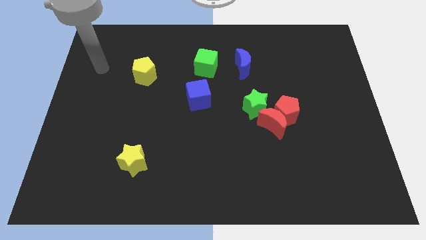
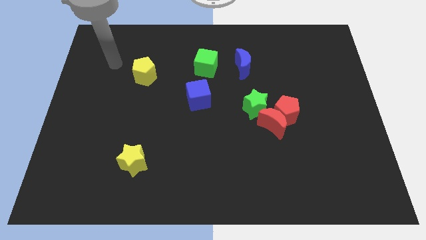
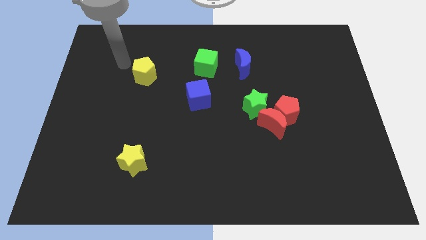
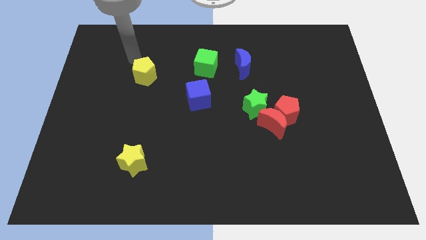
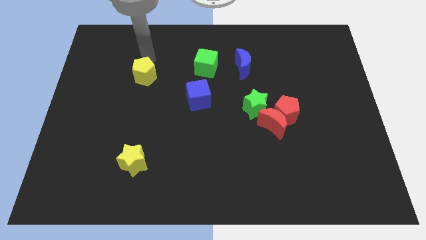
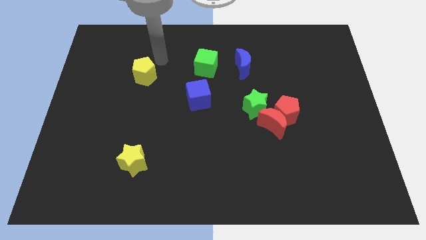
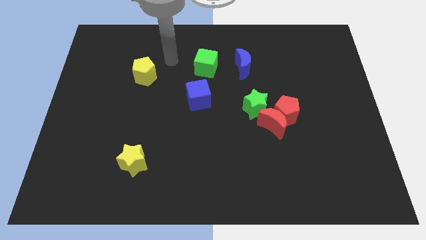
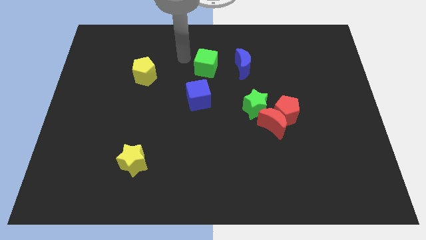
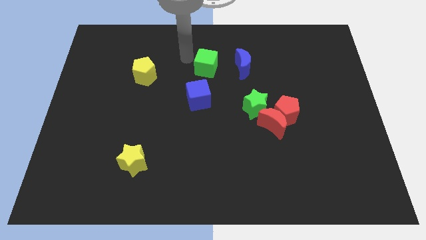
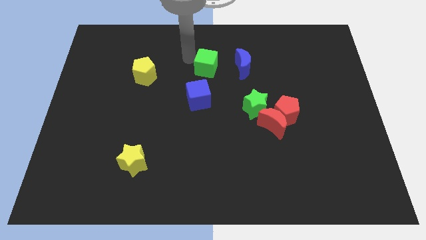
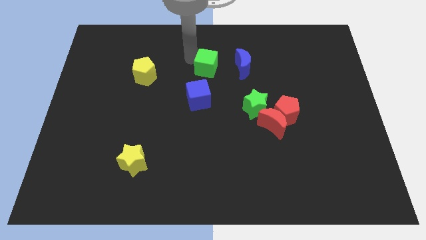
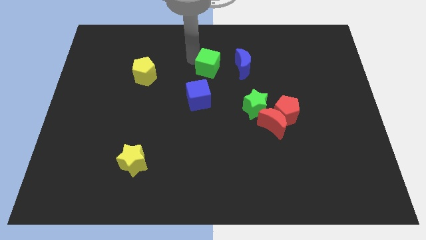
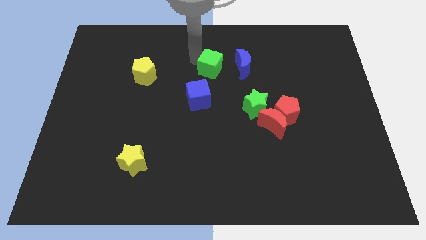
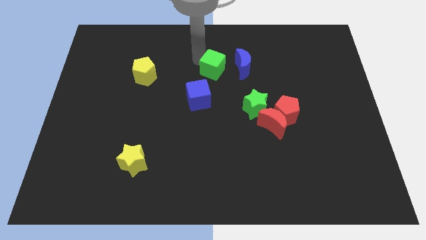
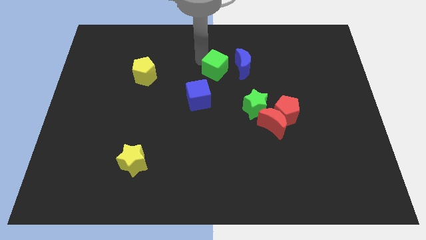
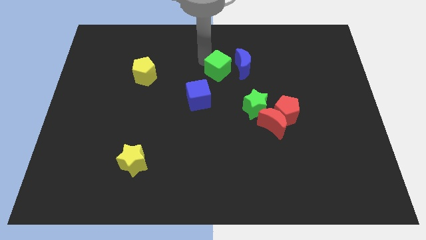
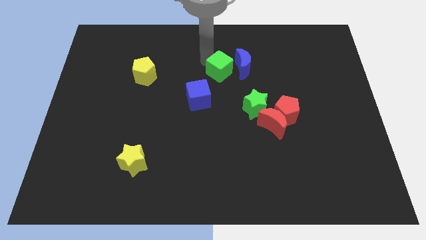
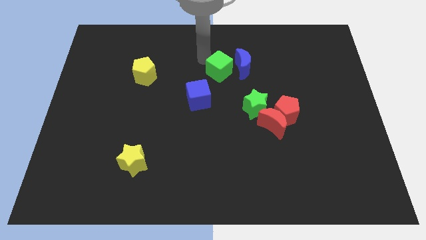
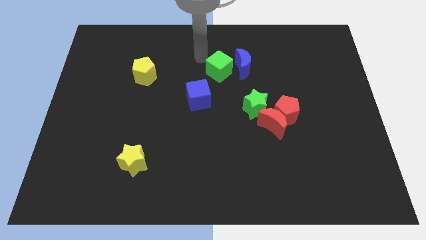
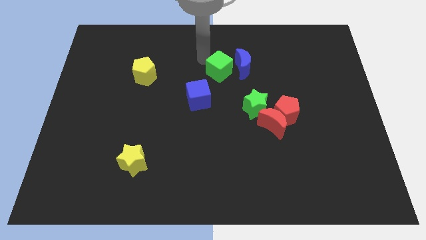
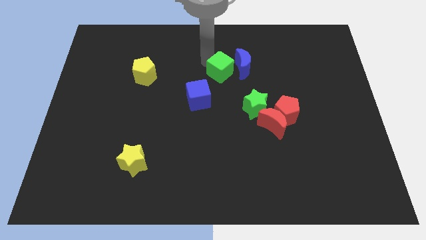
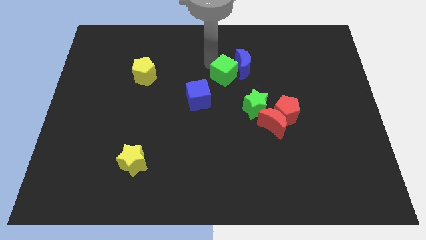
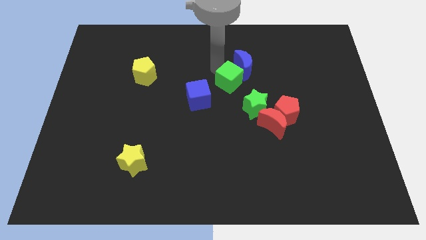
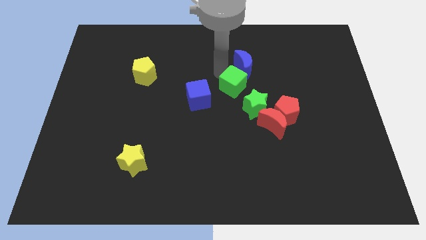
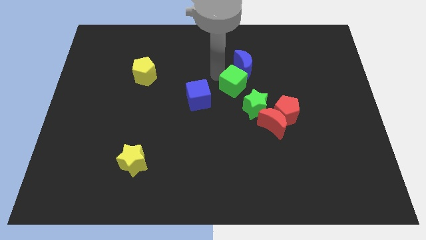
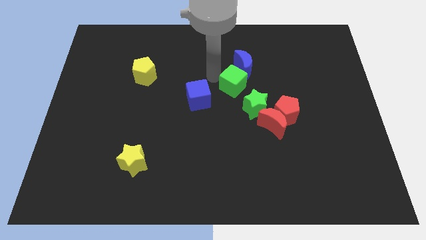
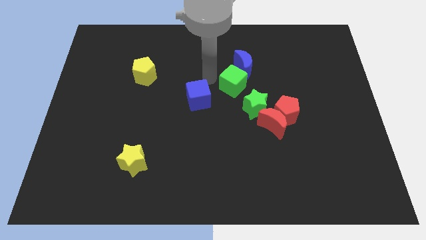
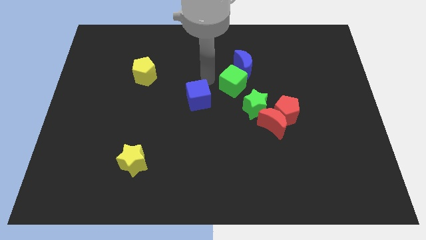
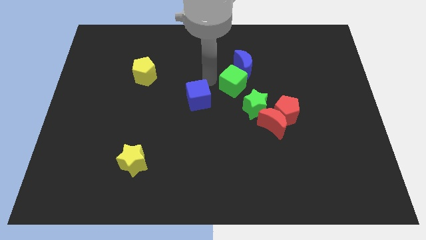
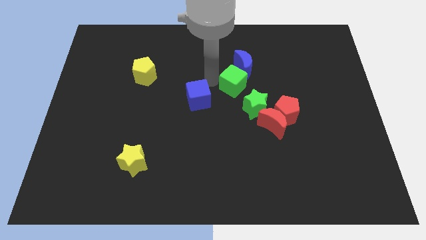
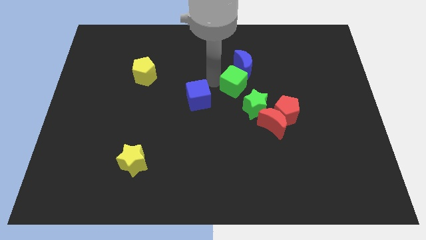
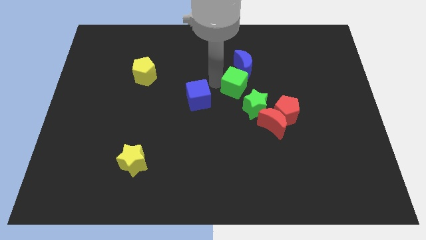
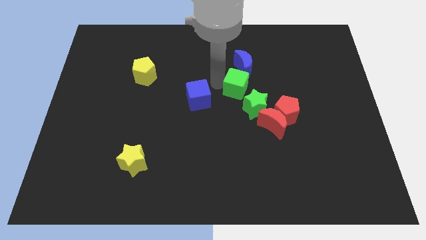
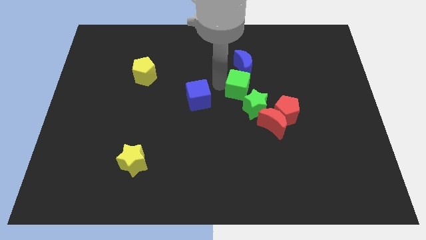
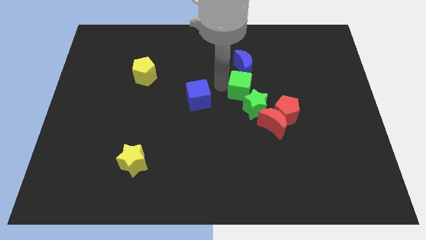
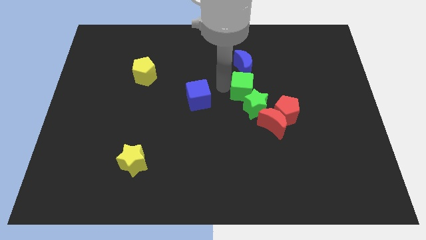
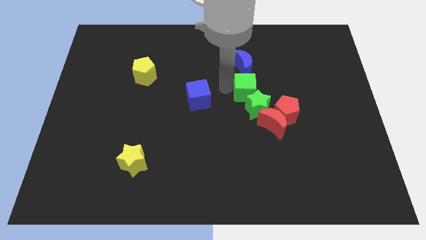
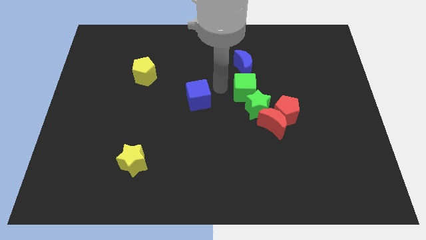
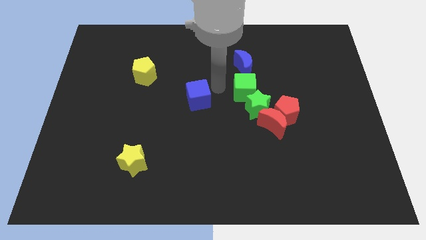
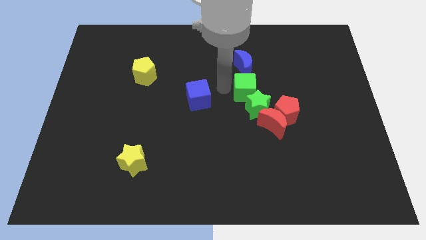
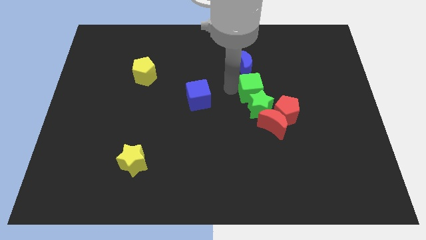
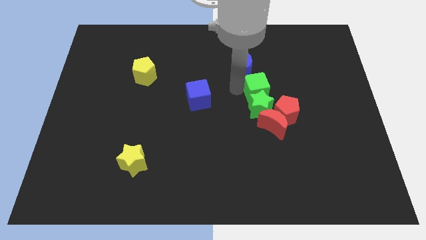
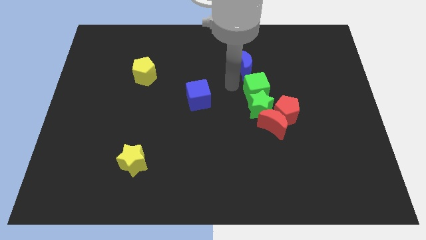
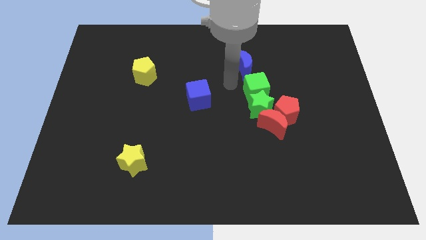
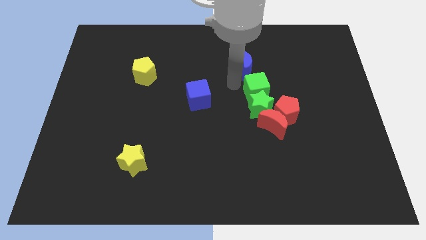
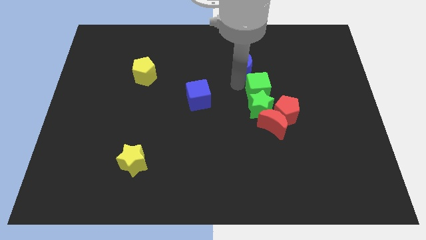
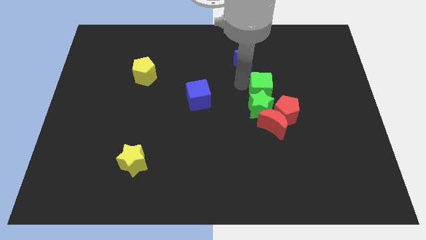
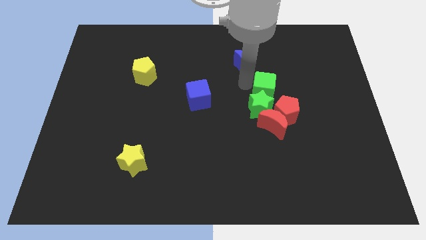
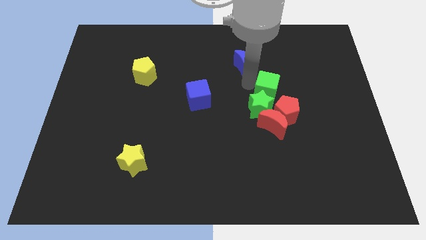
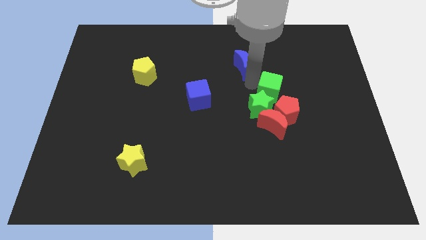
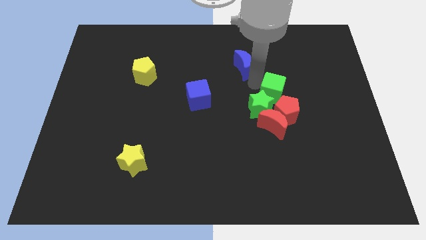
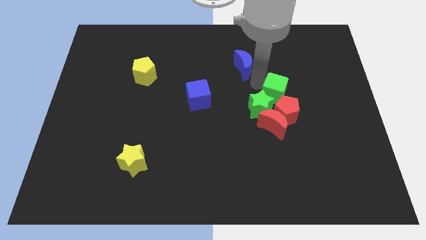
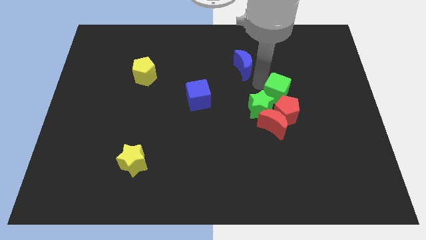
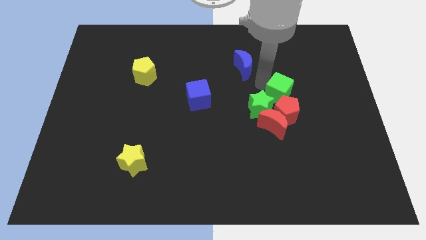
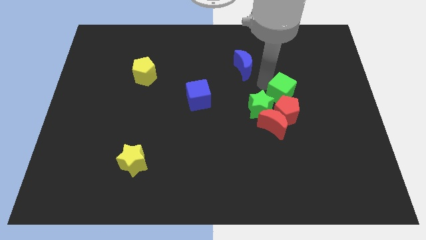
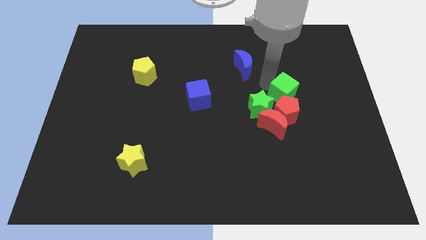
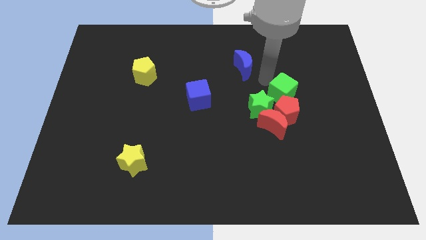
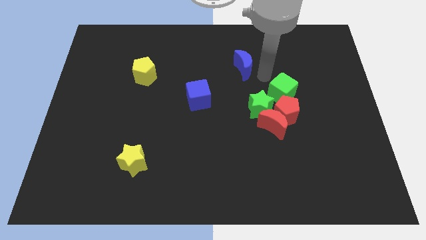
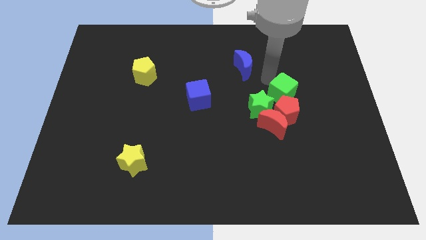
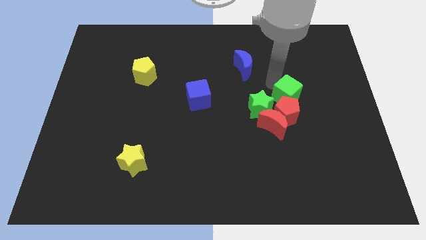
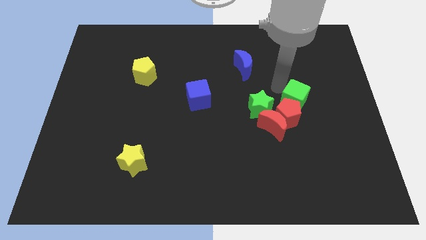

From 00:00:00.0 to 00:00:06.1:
slide the green cube diagonally downwards and to the right

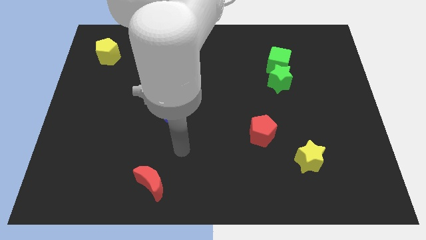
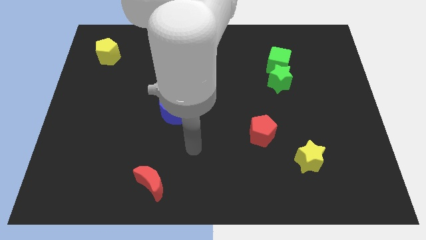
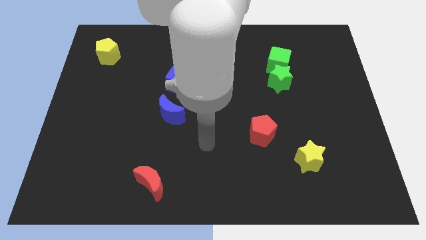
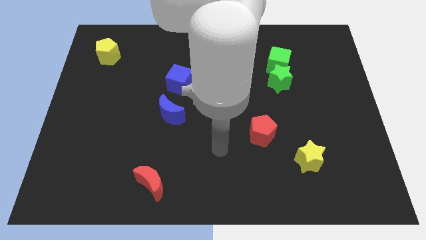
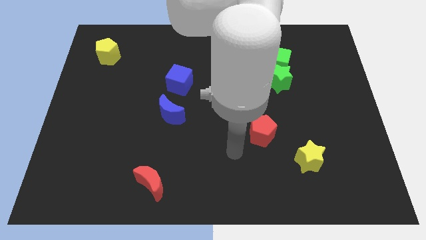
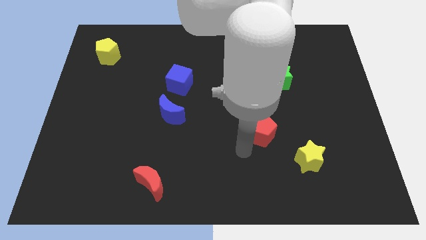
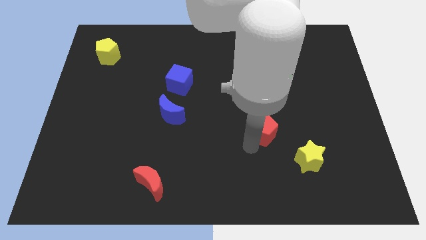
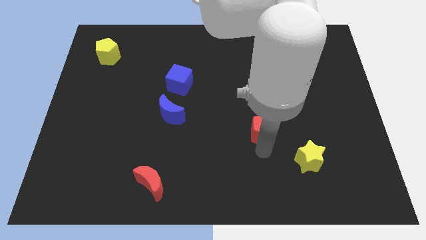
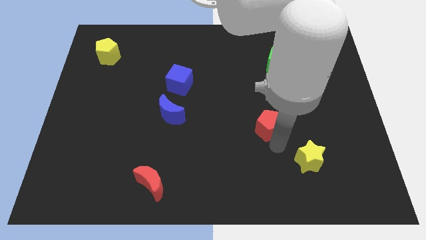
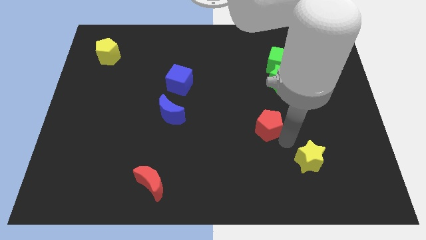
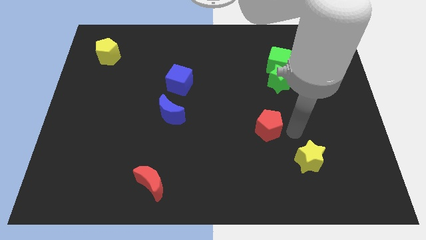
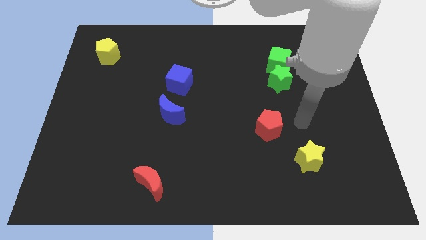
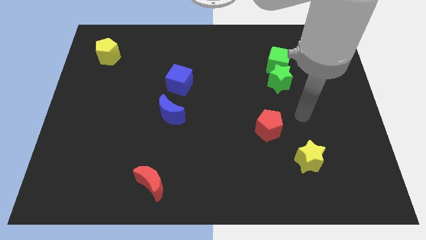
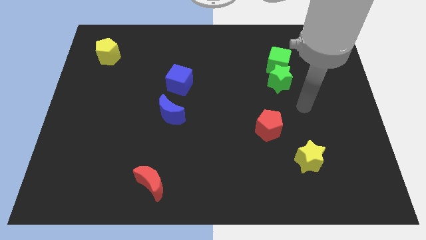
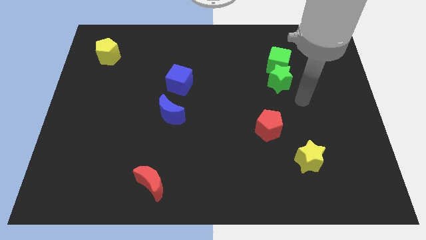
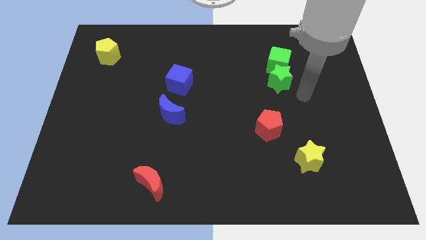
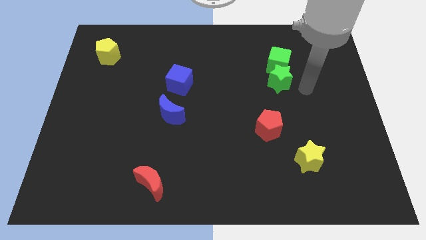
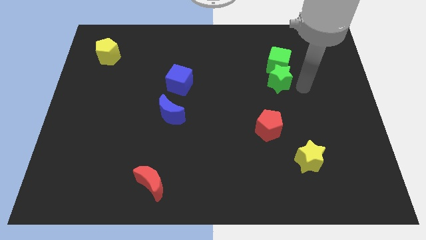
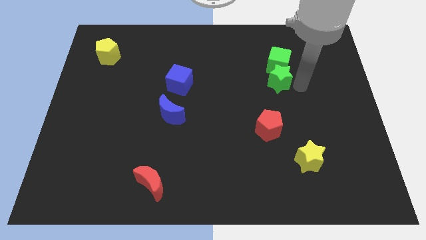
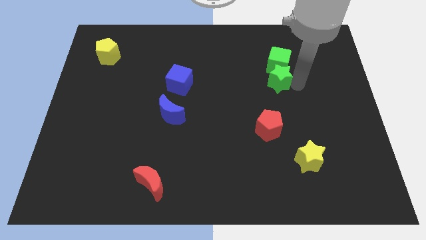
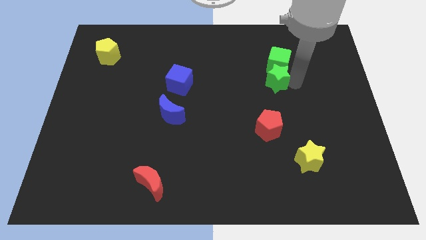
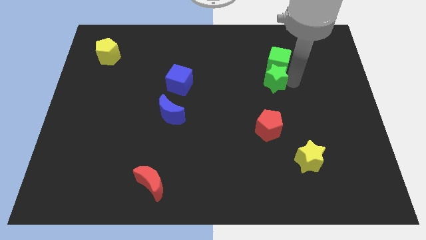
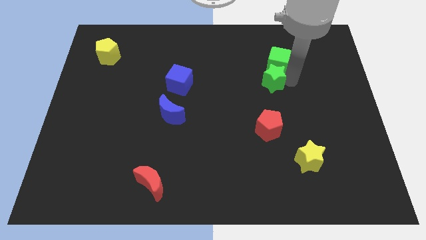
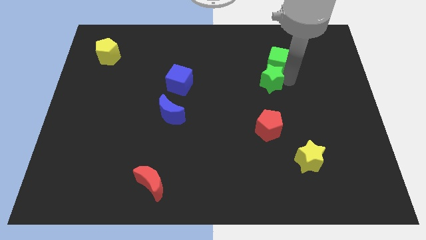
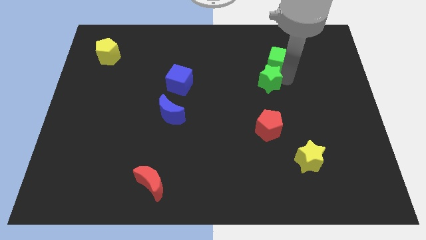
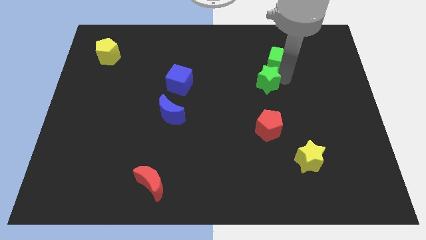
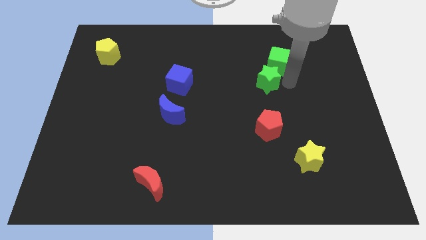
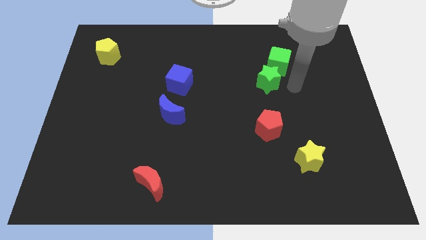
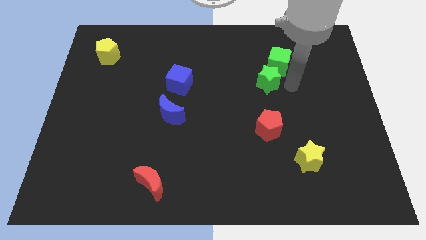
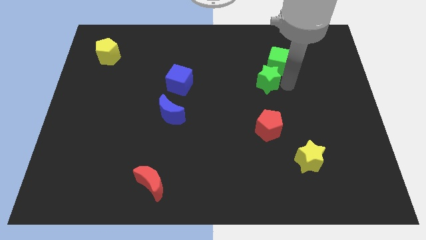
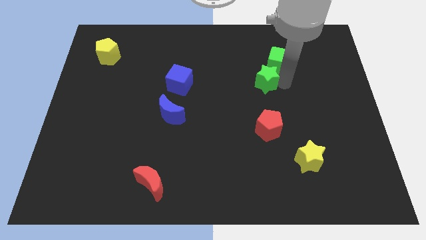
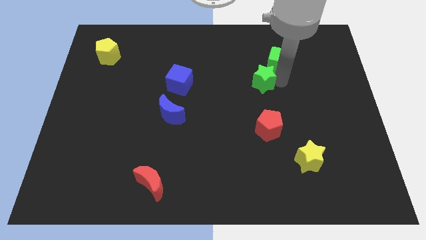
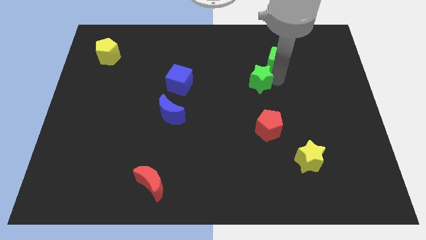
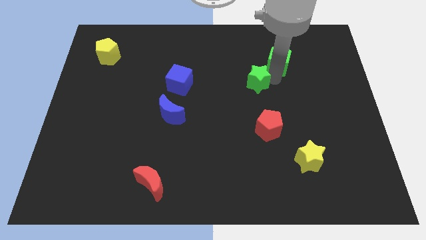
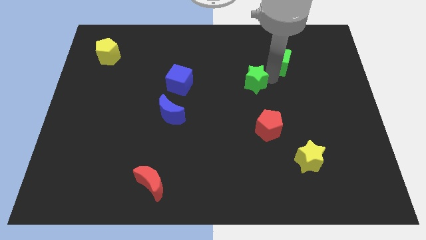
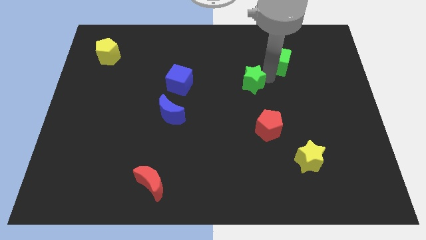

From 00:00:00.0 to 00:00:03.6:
slightly move the green star to the left
